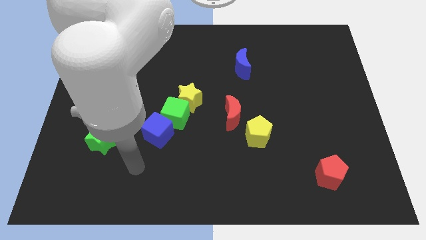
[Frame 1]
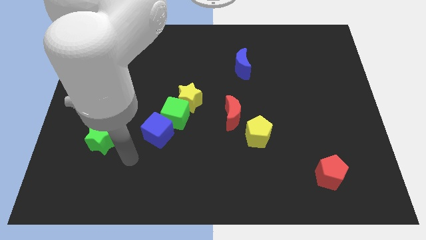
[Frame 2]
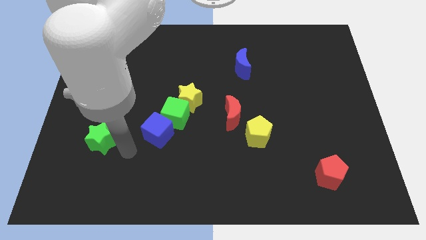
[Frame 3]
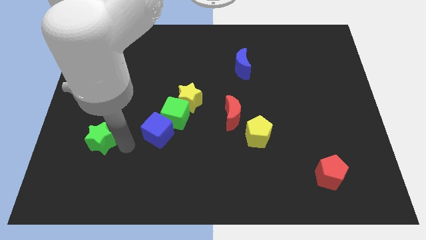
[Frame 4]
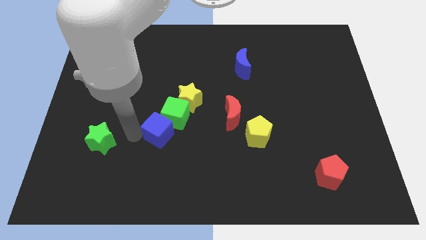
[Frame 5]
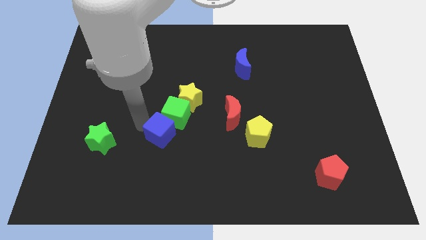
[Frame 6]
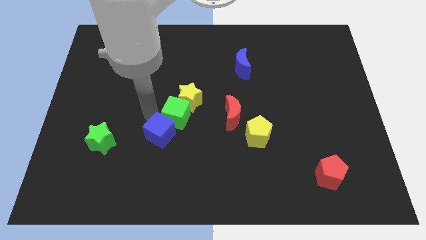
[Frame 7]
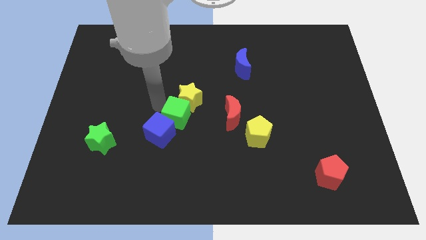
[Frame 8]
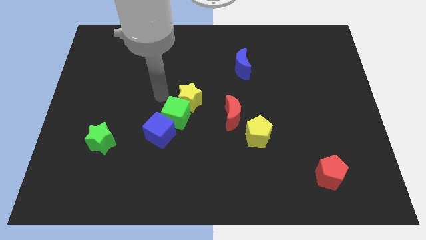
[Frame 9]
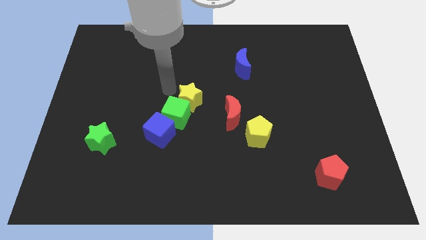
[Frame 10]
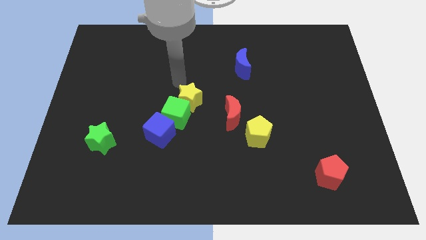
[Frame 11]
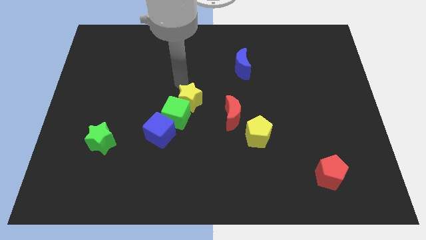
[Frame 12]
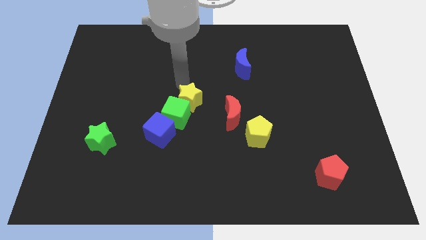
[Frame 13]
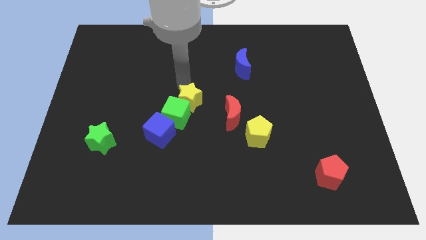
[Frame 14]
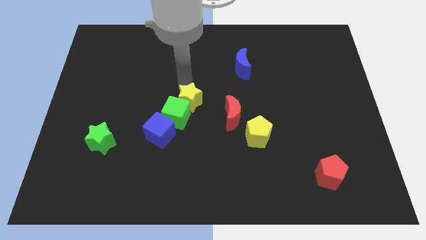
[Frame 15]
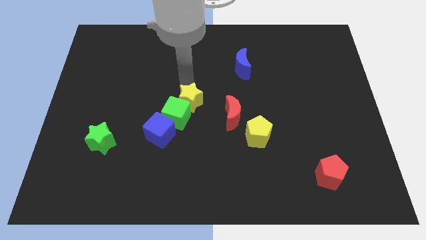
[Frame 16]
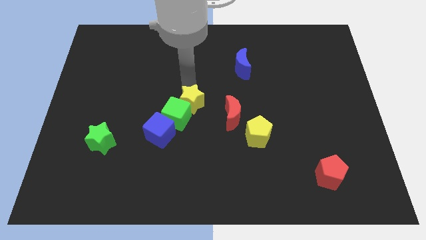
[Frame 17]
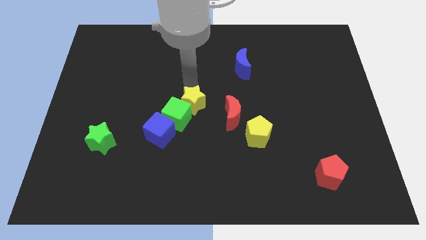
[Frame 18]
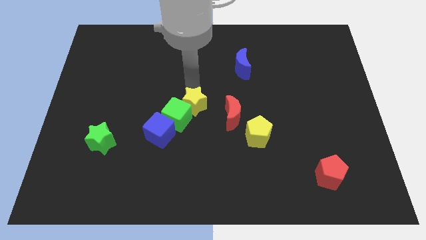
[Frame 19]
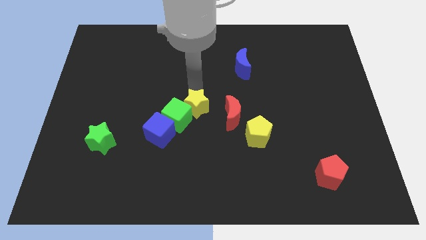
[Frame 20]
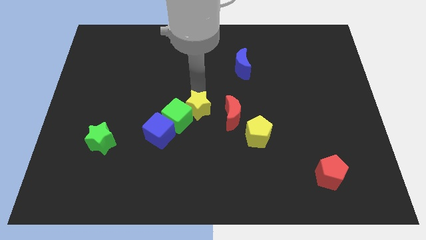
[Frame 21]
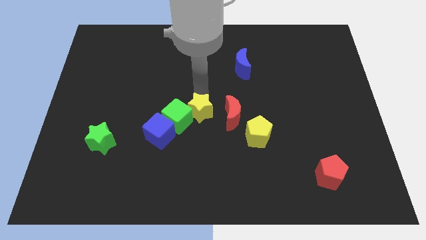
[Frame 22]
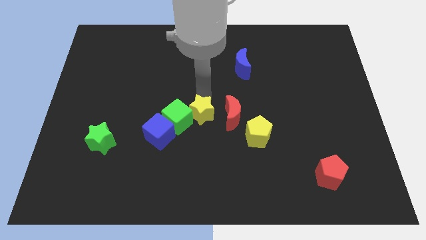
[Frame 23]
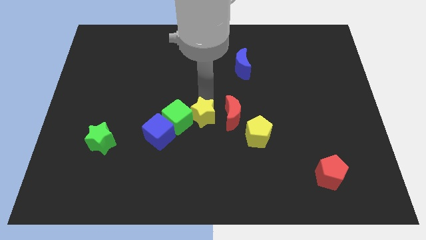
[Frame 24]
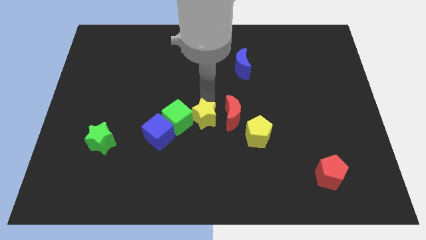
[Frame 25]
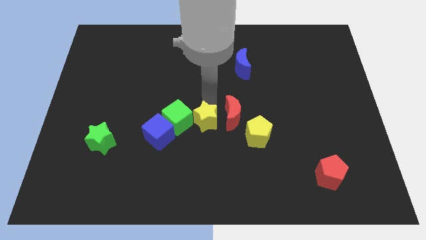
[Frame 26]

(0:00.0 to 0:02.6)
slightly push the yellow star down and right

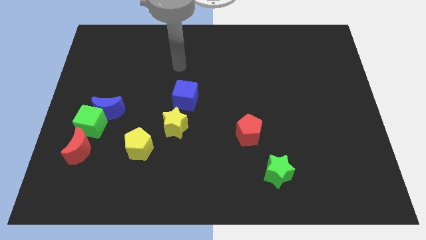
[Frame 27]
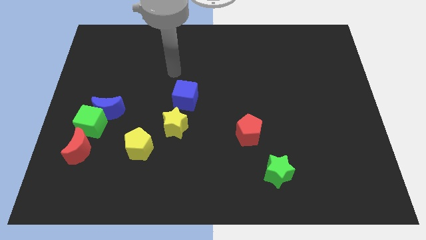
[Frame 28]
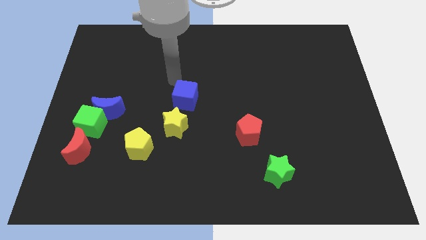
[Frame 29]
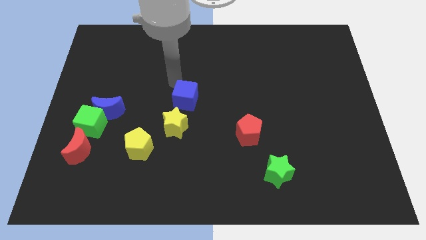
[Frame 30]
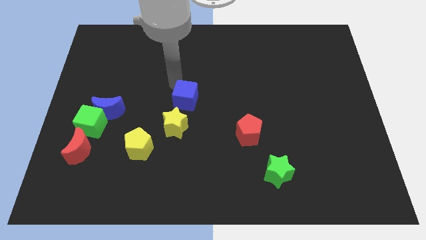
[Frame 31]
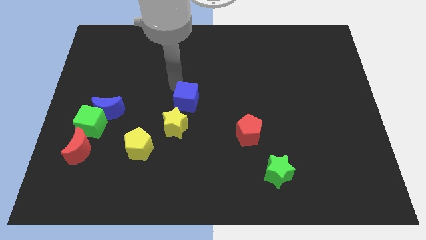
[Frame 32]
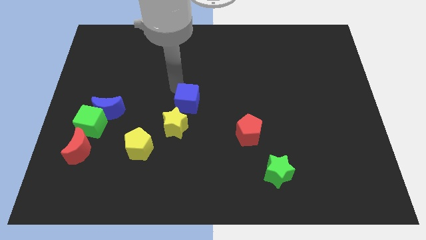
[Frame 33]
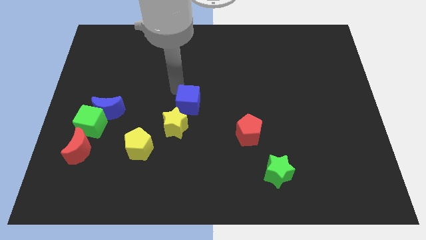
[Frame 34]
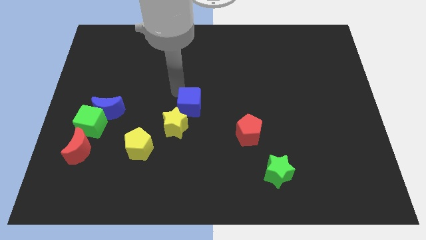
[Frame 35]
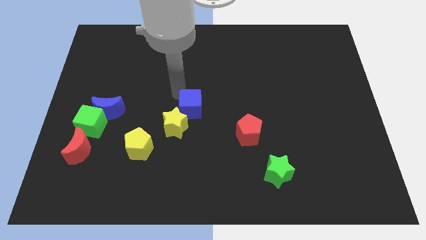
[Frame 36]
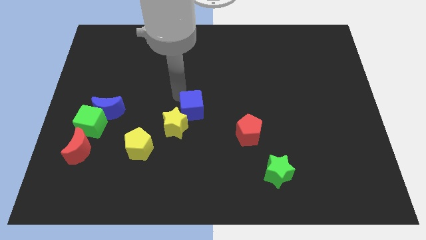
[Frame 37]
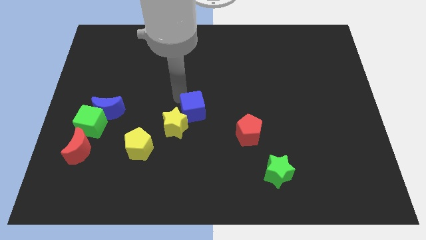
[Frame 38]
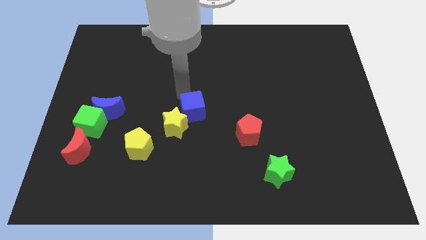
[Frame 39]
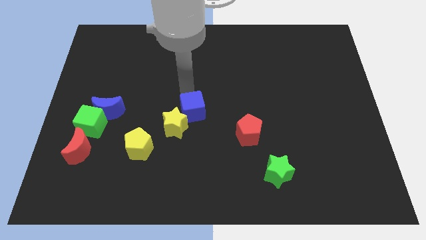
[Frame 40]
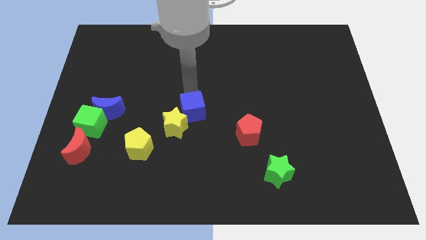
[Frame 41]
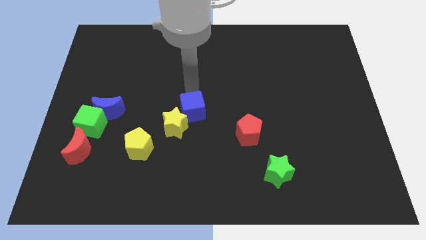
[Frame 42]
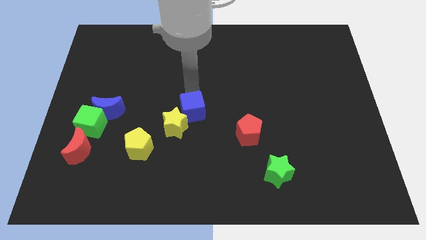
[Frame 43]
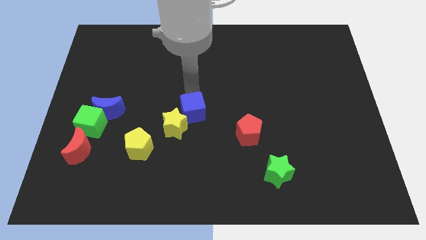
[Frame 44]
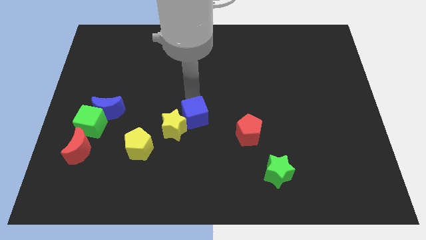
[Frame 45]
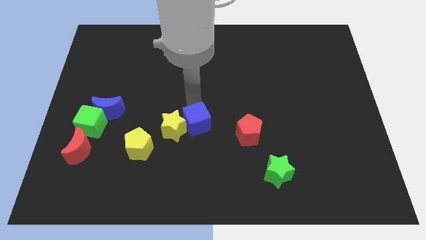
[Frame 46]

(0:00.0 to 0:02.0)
slightly push the blue cube down

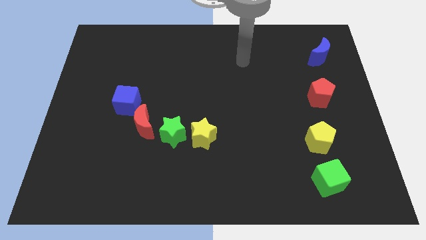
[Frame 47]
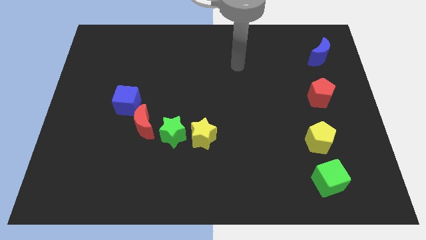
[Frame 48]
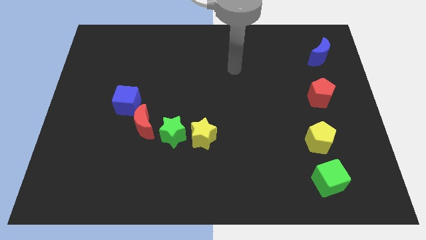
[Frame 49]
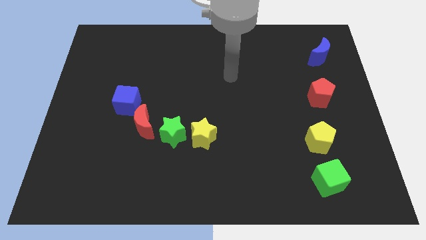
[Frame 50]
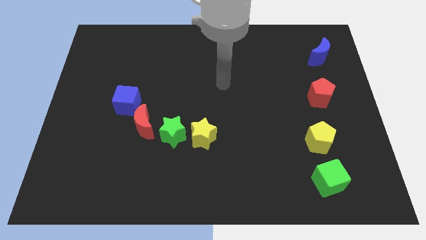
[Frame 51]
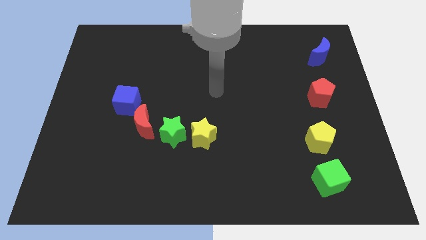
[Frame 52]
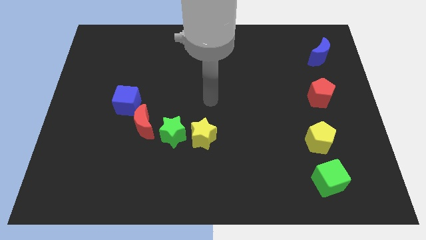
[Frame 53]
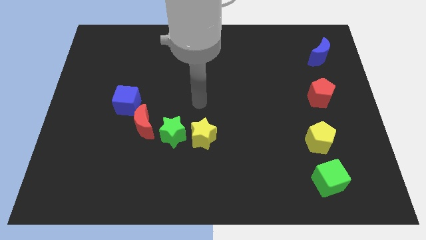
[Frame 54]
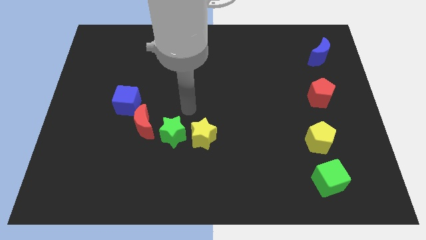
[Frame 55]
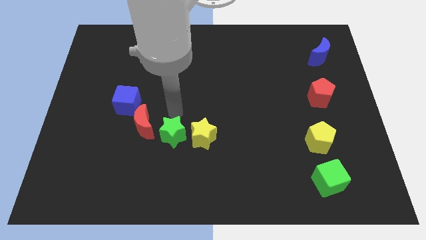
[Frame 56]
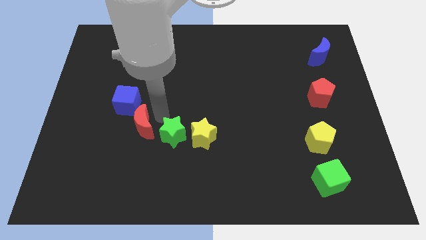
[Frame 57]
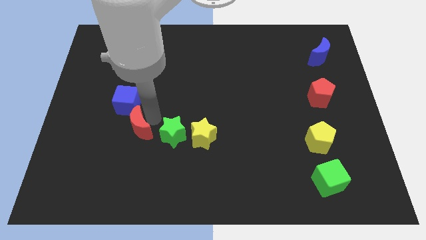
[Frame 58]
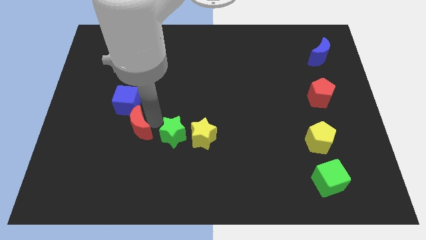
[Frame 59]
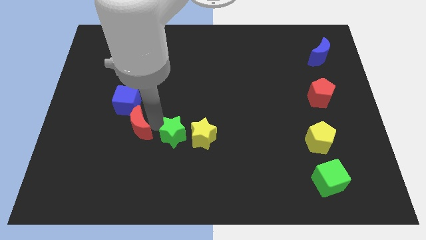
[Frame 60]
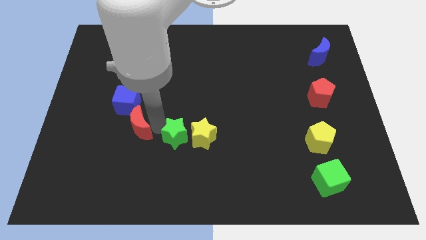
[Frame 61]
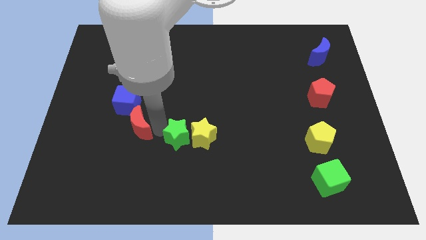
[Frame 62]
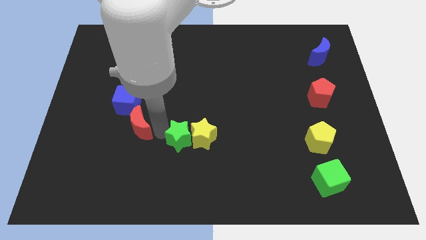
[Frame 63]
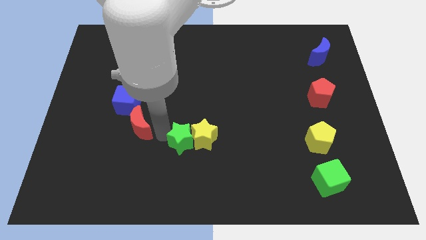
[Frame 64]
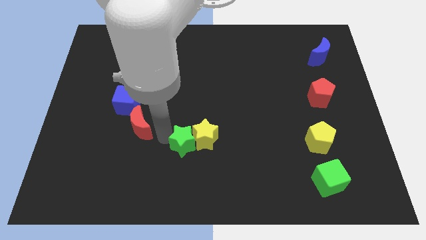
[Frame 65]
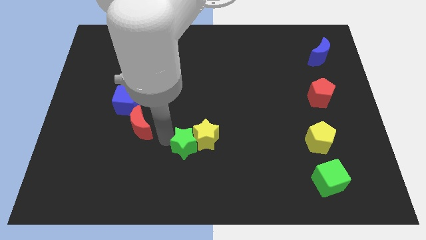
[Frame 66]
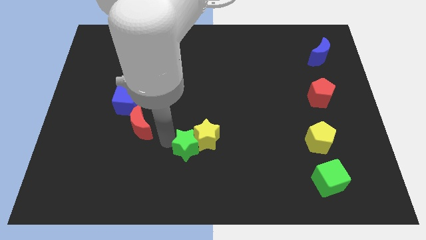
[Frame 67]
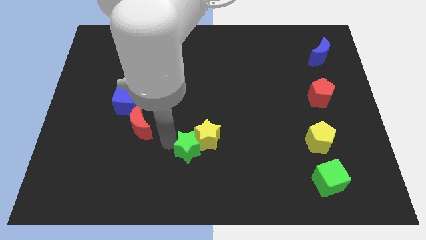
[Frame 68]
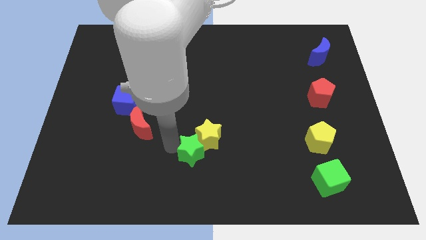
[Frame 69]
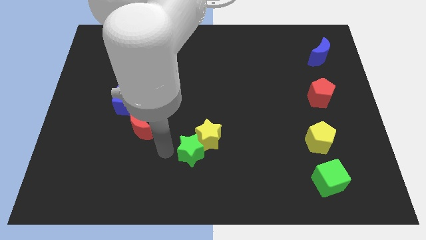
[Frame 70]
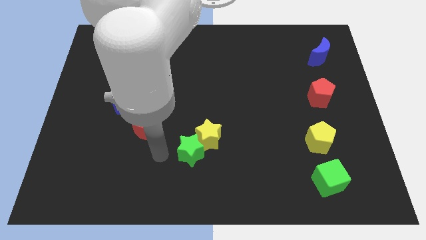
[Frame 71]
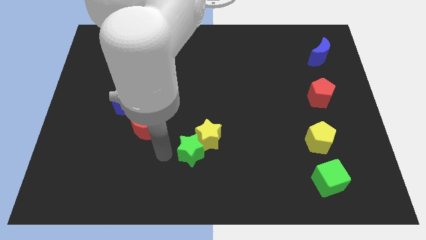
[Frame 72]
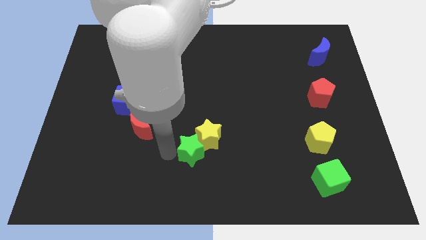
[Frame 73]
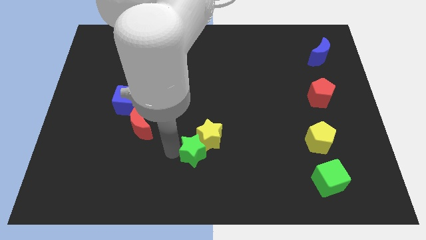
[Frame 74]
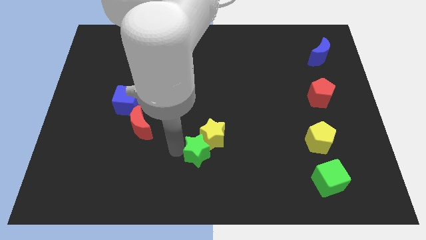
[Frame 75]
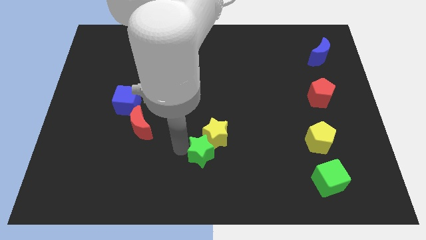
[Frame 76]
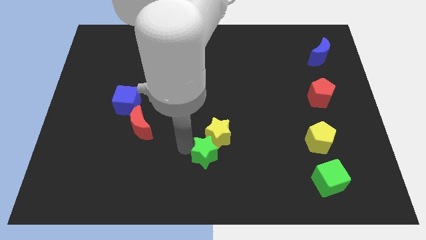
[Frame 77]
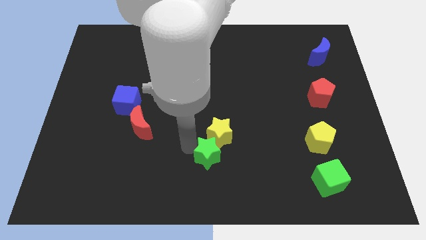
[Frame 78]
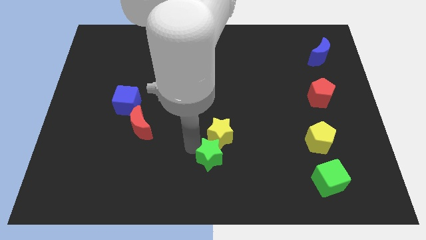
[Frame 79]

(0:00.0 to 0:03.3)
push the green star slightly right

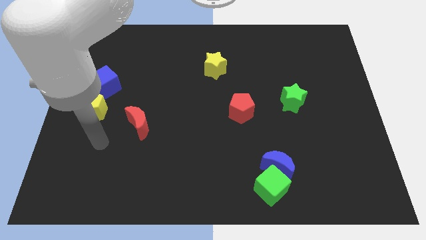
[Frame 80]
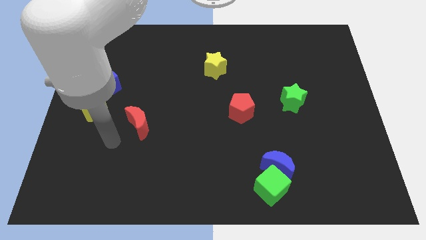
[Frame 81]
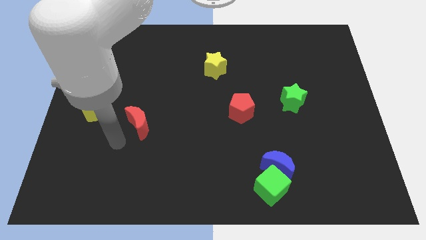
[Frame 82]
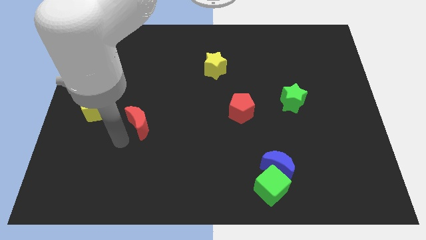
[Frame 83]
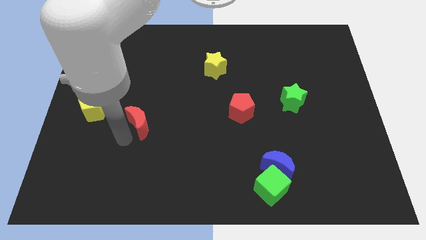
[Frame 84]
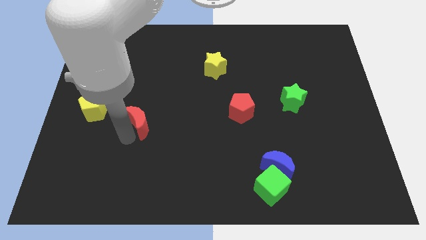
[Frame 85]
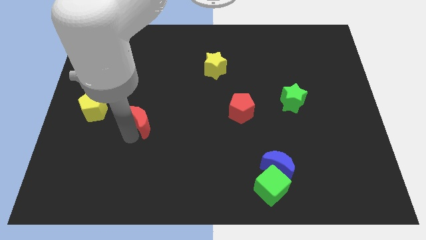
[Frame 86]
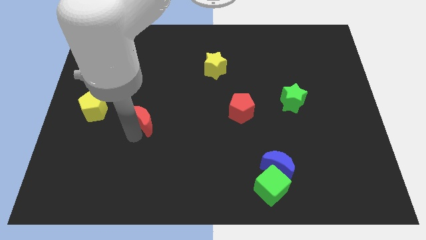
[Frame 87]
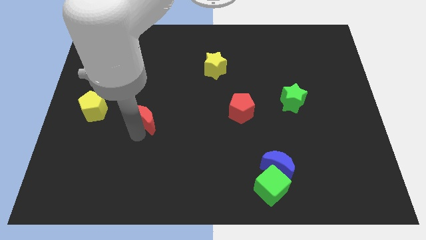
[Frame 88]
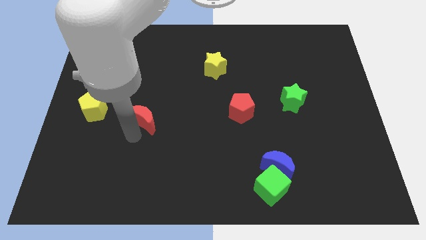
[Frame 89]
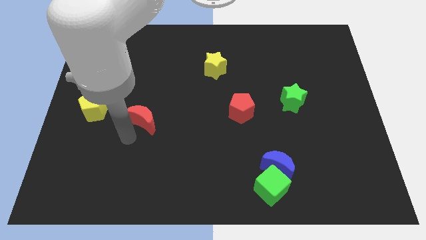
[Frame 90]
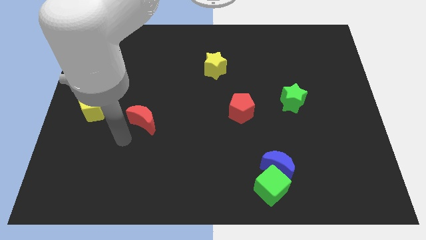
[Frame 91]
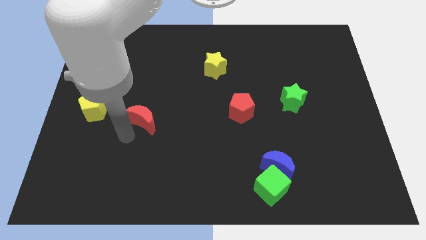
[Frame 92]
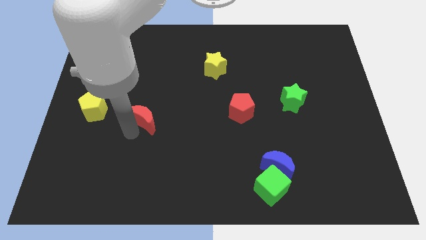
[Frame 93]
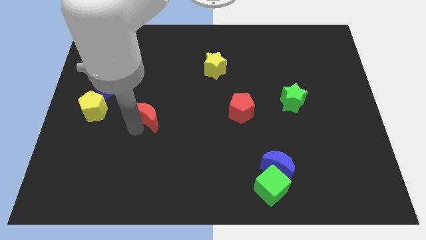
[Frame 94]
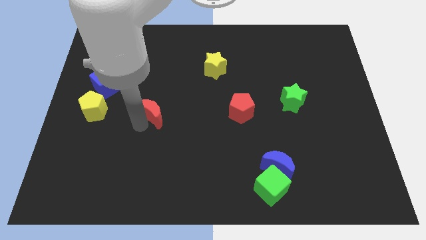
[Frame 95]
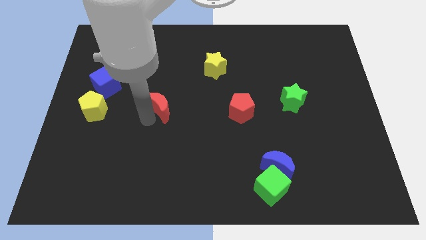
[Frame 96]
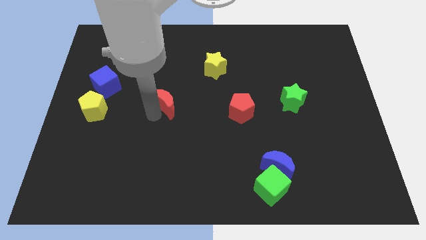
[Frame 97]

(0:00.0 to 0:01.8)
move the red moon upwards and right diagonally somewhat
